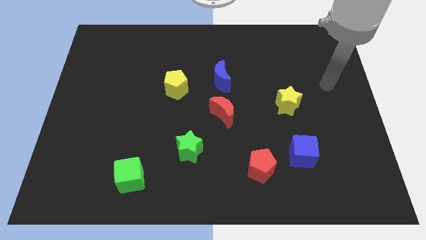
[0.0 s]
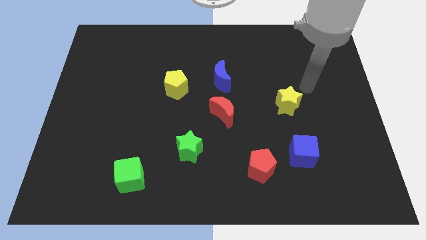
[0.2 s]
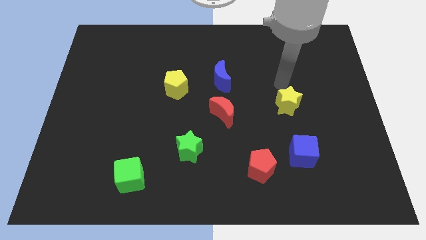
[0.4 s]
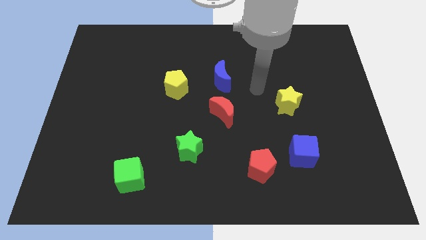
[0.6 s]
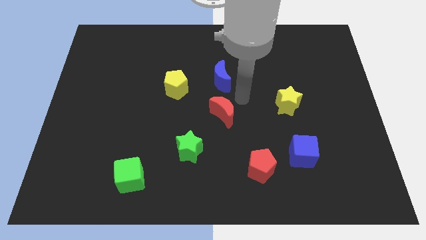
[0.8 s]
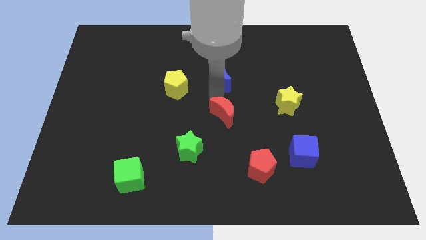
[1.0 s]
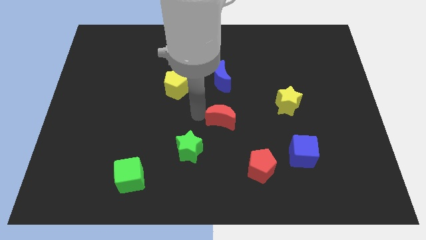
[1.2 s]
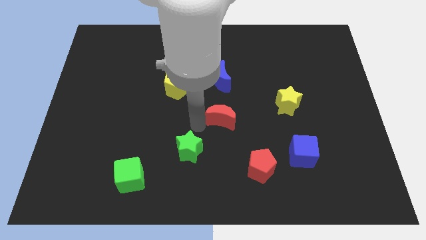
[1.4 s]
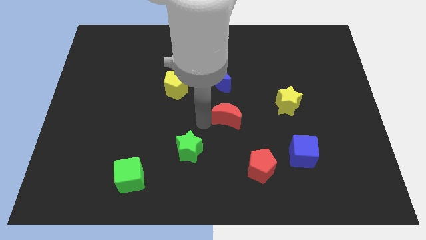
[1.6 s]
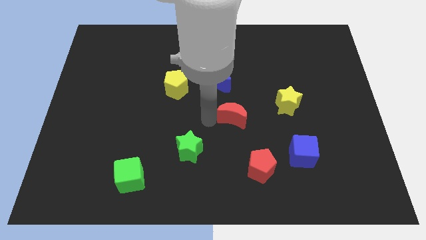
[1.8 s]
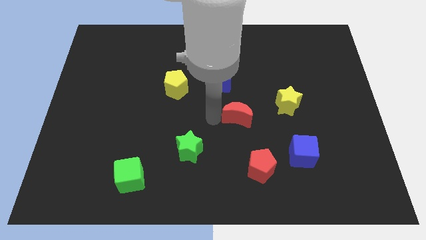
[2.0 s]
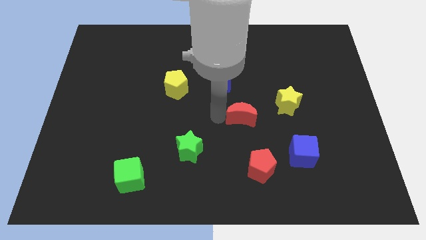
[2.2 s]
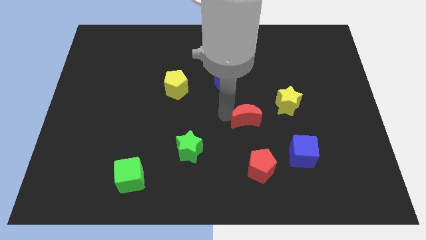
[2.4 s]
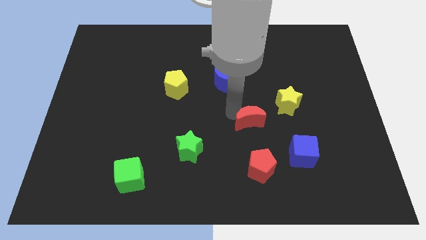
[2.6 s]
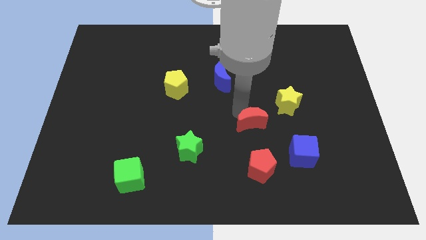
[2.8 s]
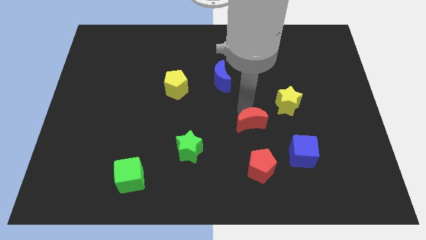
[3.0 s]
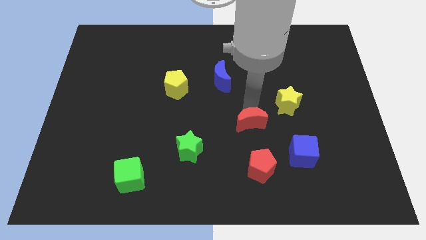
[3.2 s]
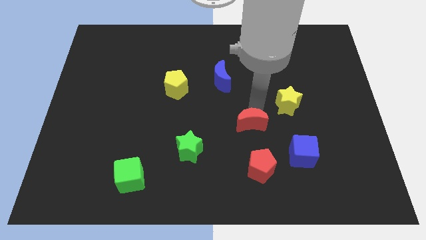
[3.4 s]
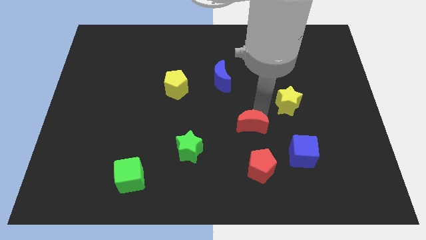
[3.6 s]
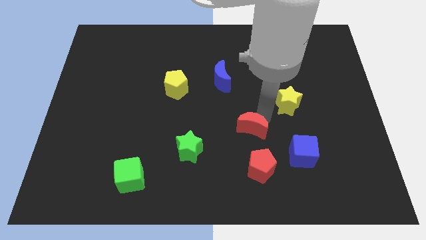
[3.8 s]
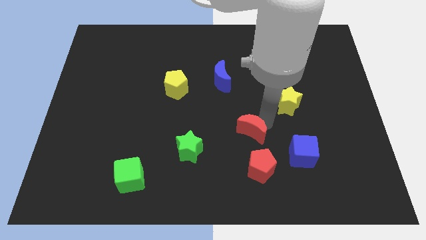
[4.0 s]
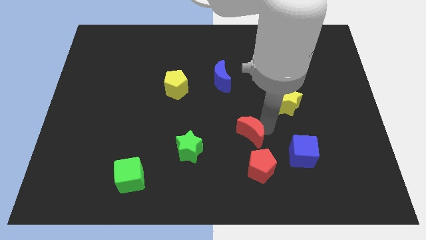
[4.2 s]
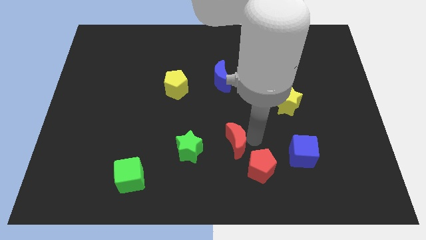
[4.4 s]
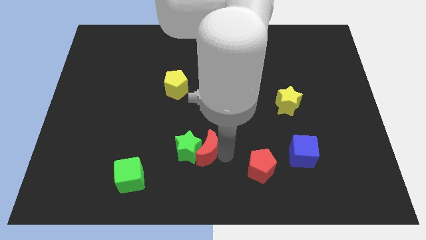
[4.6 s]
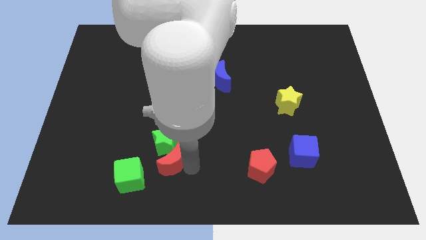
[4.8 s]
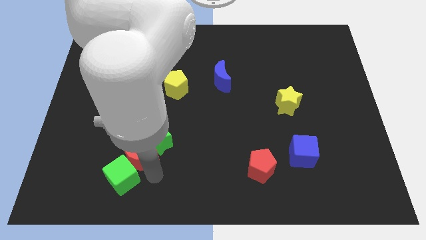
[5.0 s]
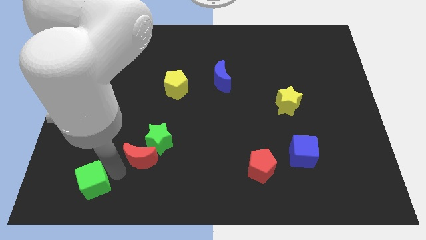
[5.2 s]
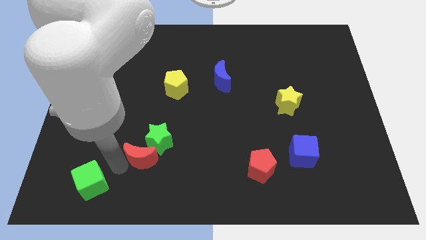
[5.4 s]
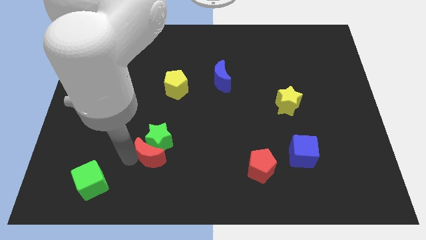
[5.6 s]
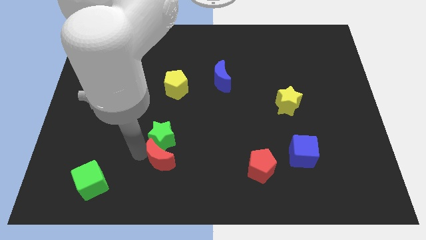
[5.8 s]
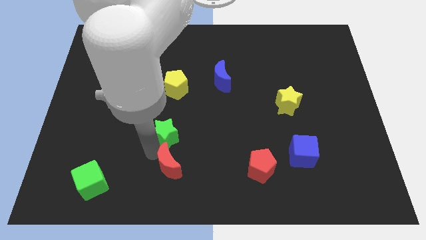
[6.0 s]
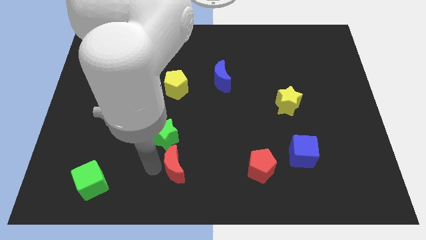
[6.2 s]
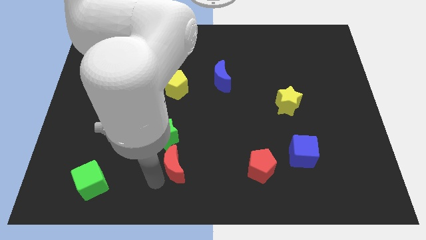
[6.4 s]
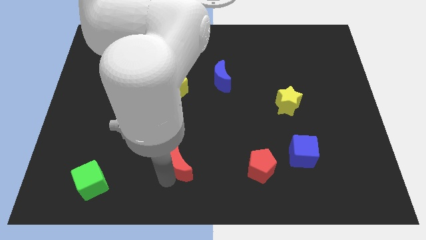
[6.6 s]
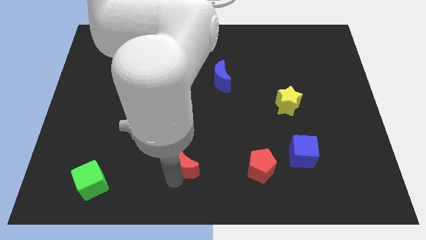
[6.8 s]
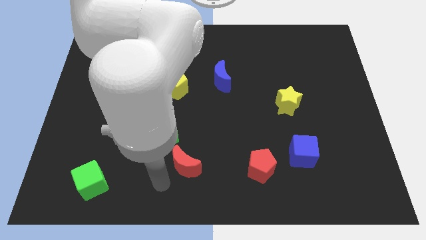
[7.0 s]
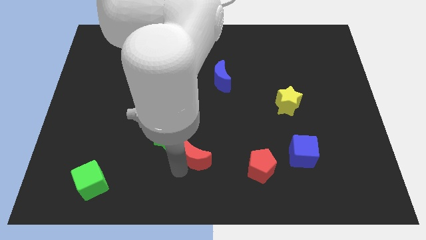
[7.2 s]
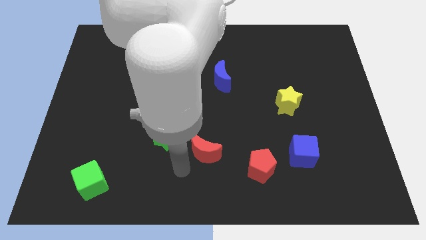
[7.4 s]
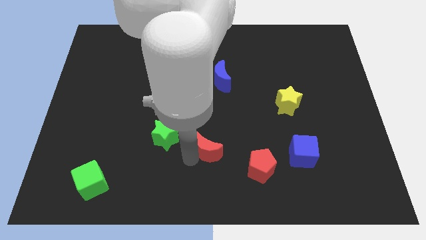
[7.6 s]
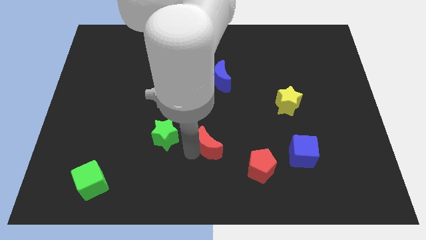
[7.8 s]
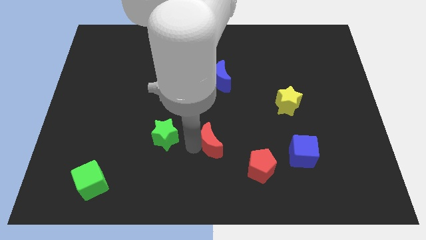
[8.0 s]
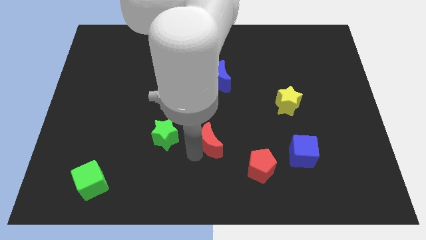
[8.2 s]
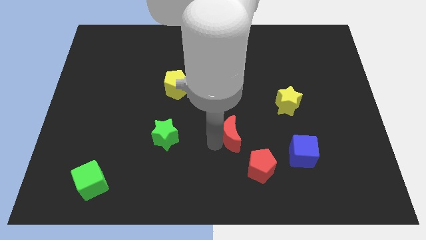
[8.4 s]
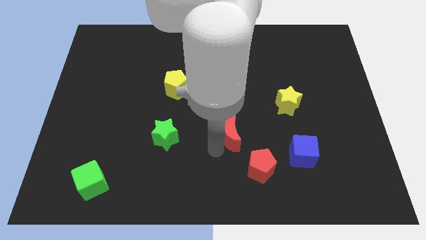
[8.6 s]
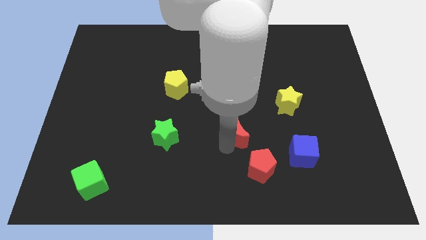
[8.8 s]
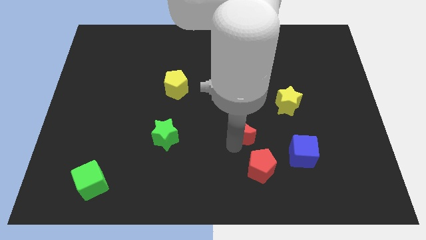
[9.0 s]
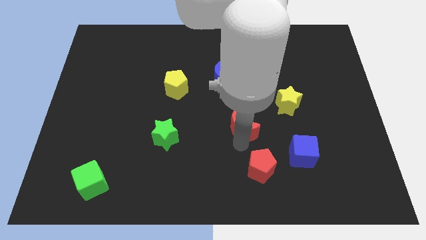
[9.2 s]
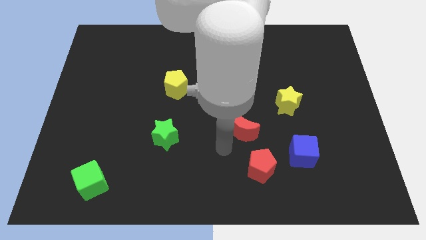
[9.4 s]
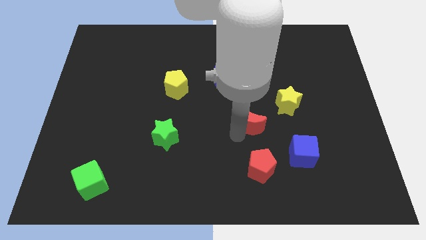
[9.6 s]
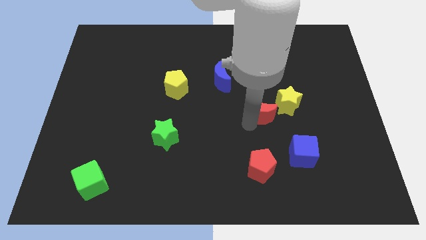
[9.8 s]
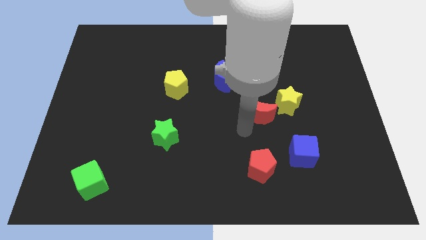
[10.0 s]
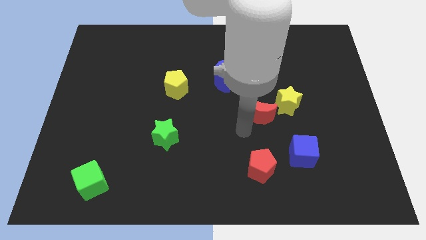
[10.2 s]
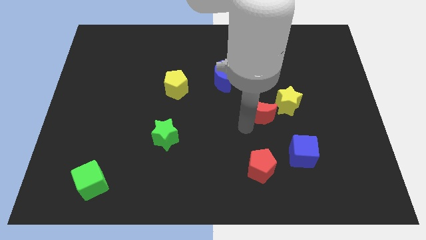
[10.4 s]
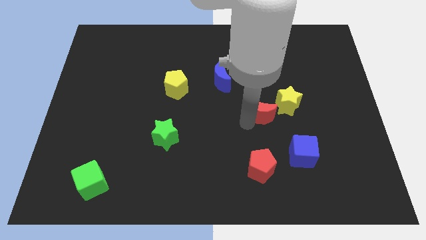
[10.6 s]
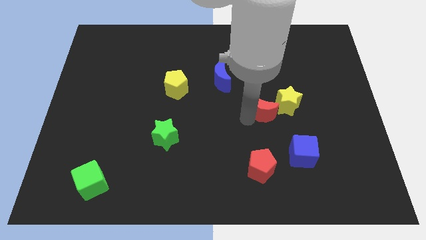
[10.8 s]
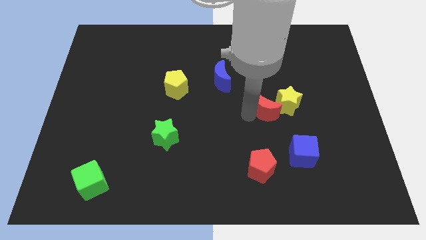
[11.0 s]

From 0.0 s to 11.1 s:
slide the red moon close to the yellow star

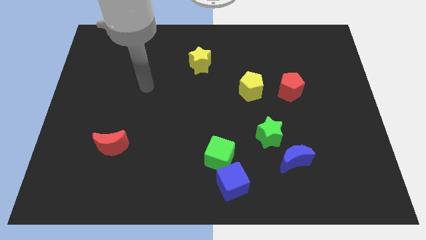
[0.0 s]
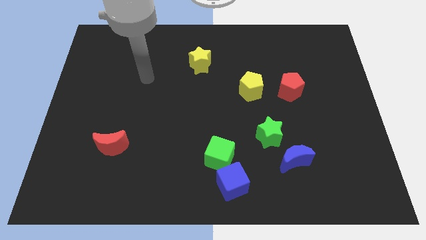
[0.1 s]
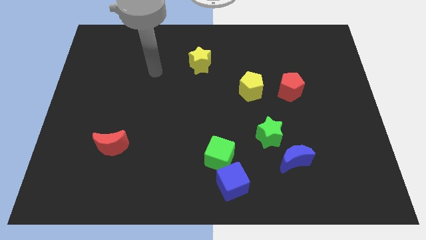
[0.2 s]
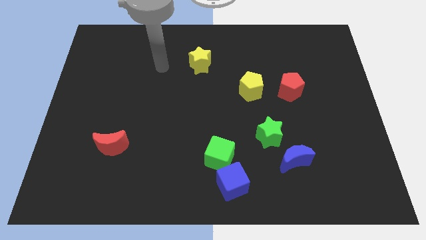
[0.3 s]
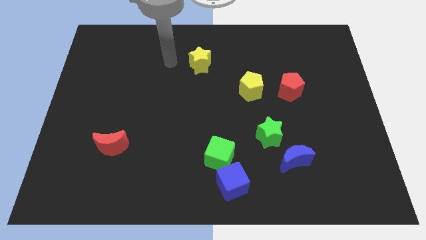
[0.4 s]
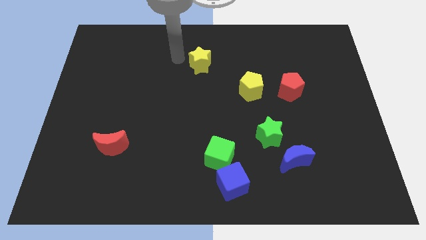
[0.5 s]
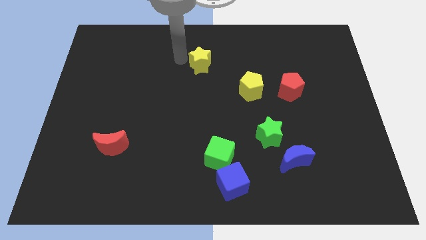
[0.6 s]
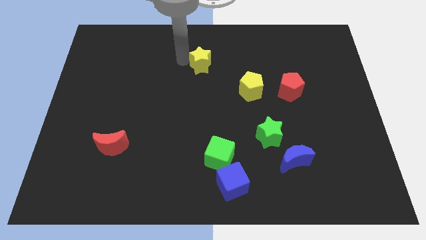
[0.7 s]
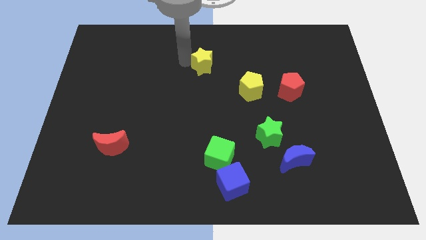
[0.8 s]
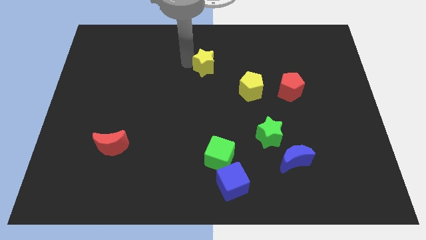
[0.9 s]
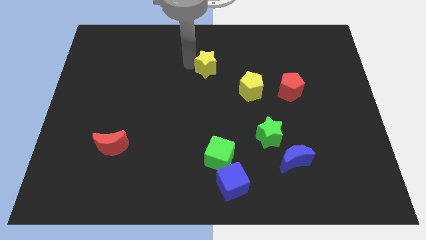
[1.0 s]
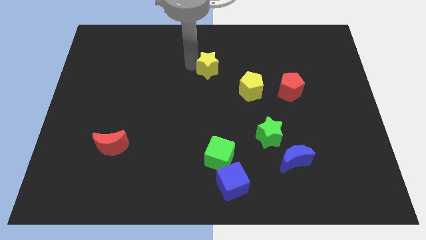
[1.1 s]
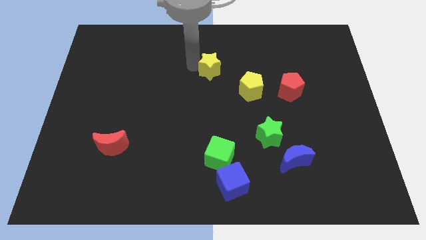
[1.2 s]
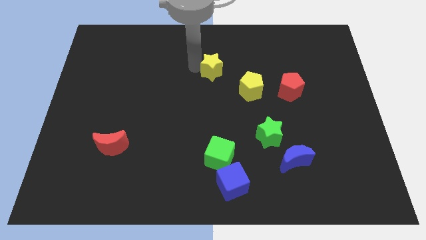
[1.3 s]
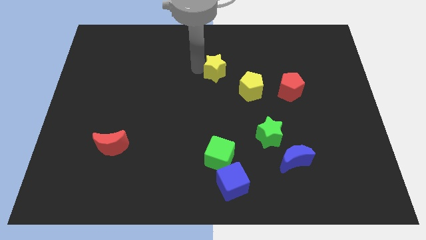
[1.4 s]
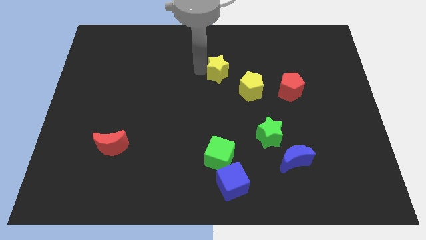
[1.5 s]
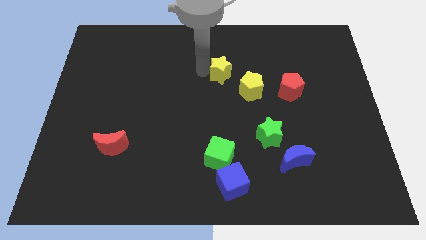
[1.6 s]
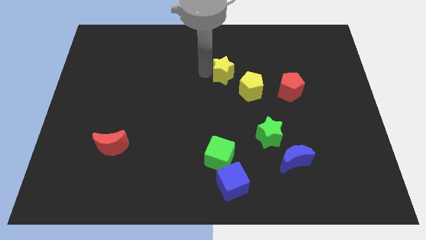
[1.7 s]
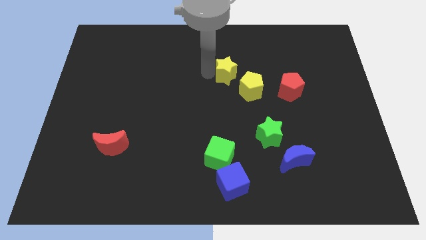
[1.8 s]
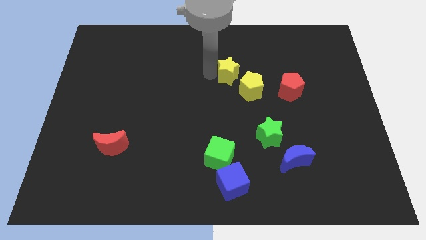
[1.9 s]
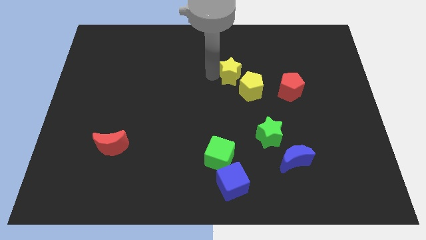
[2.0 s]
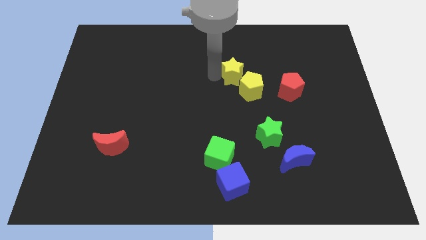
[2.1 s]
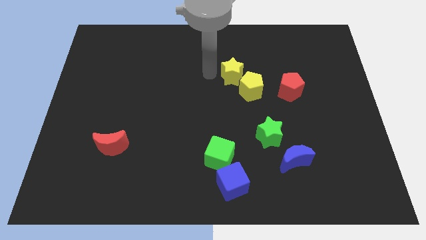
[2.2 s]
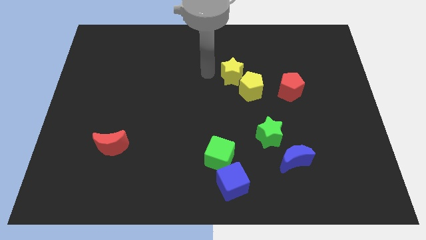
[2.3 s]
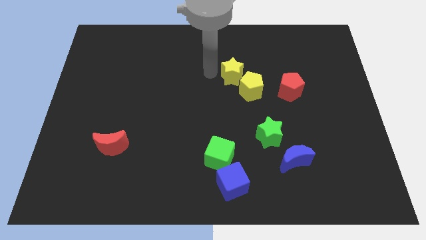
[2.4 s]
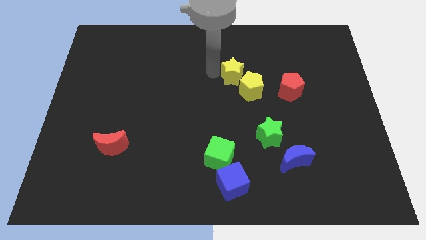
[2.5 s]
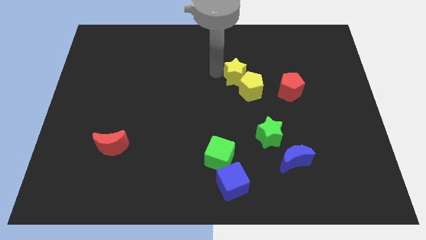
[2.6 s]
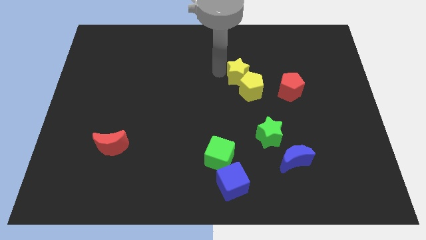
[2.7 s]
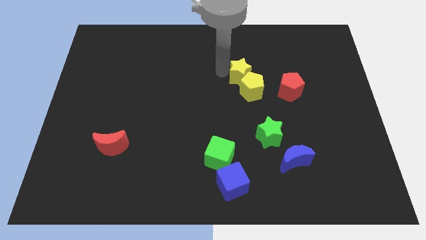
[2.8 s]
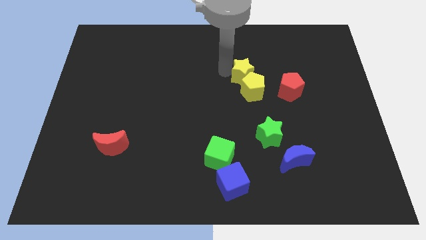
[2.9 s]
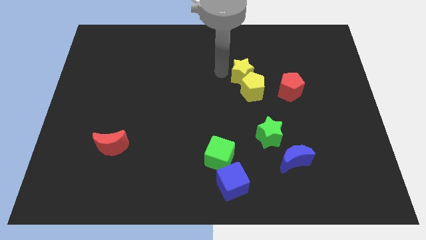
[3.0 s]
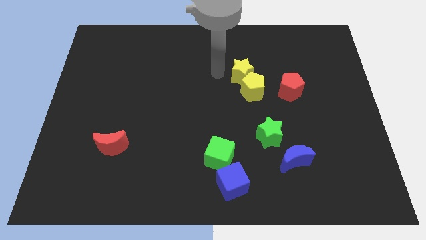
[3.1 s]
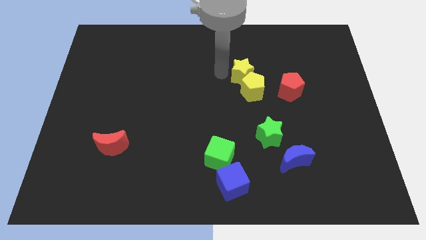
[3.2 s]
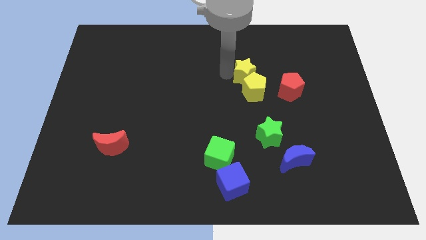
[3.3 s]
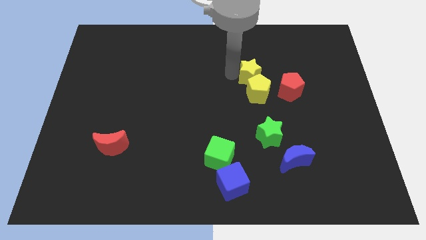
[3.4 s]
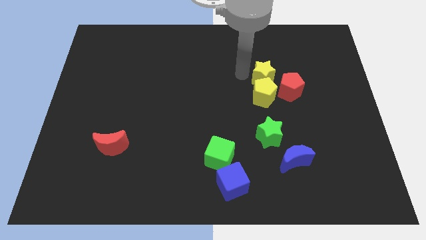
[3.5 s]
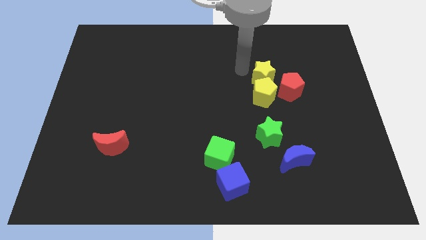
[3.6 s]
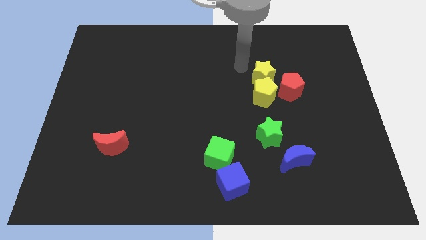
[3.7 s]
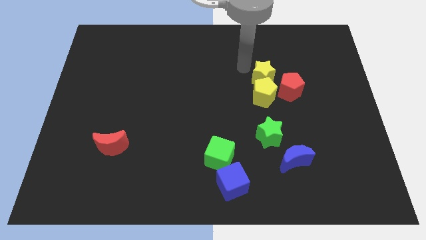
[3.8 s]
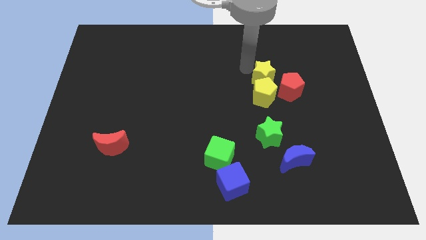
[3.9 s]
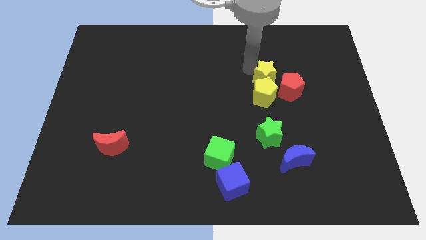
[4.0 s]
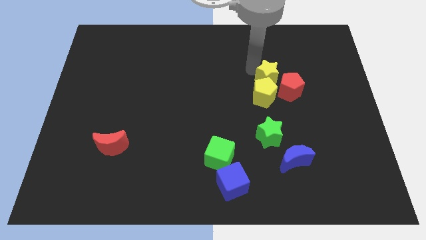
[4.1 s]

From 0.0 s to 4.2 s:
slide the yellow star to the red pentagon
